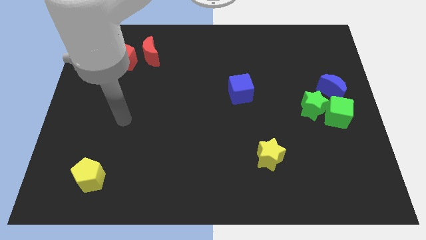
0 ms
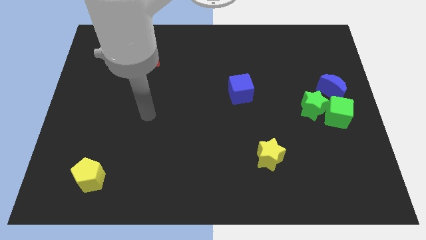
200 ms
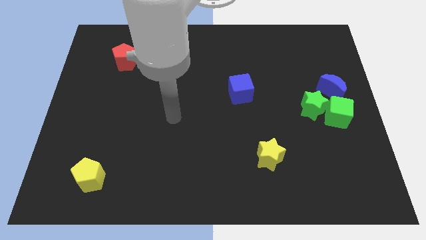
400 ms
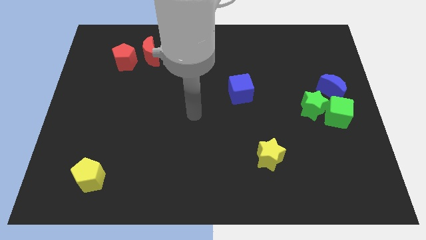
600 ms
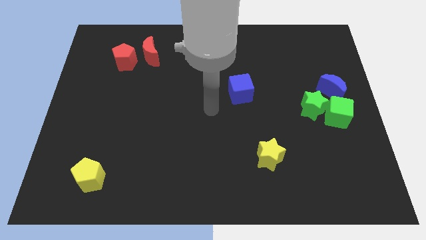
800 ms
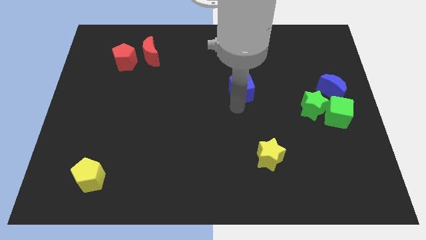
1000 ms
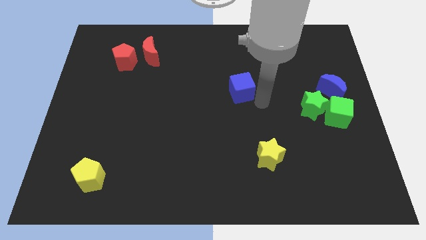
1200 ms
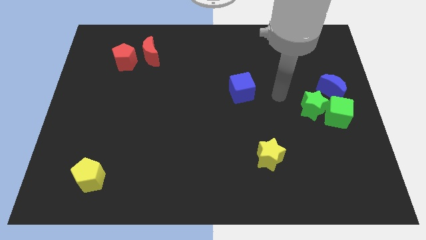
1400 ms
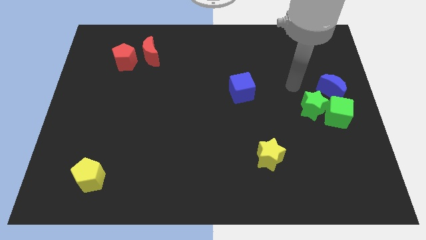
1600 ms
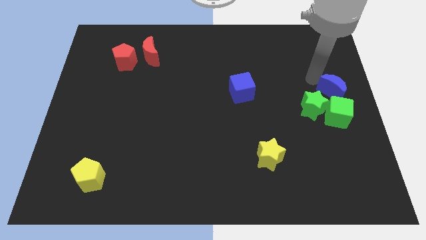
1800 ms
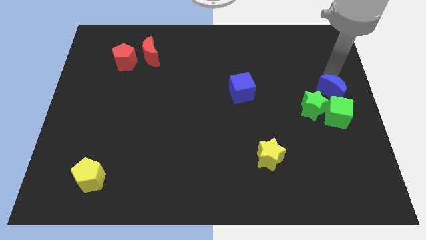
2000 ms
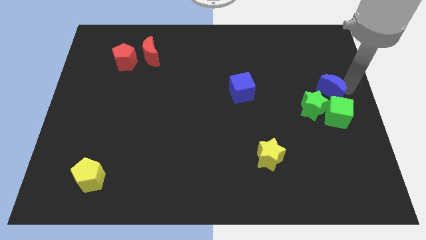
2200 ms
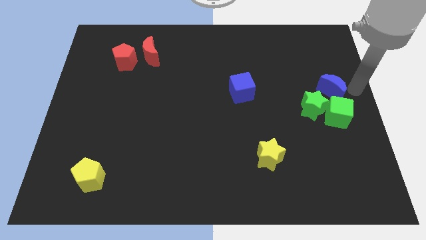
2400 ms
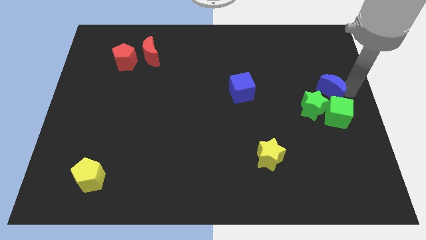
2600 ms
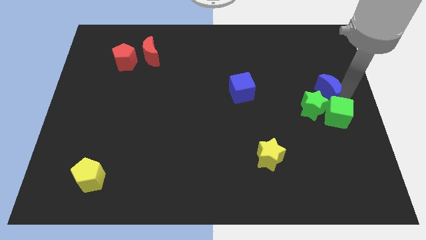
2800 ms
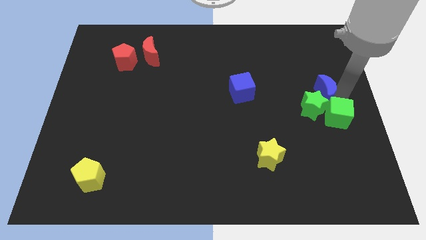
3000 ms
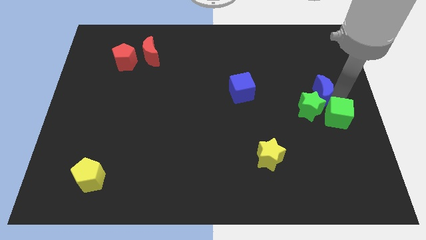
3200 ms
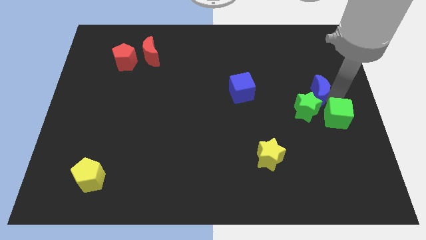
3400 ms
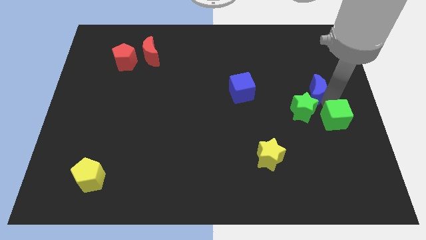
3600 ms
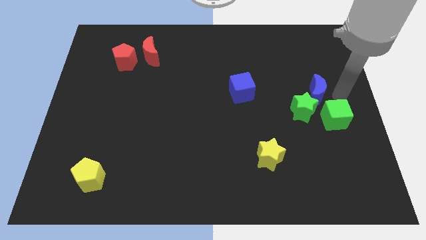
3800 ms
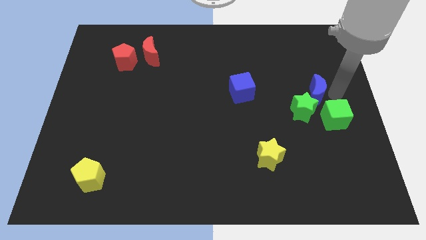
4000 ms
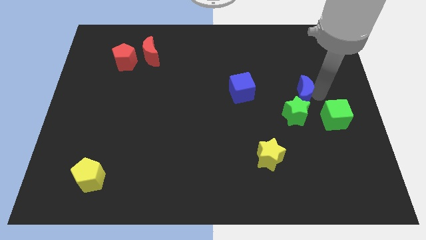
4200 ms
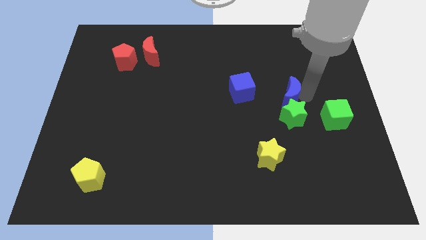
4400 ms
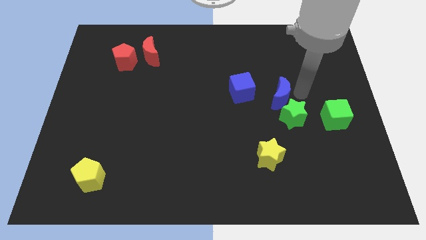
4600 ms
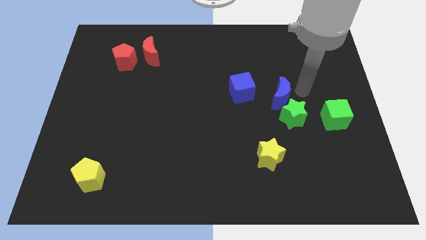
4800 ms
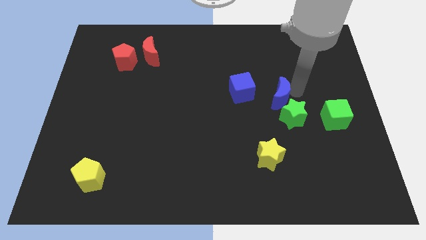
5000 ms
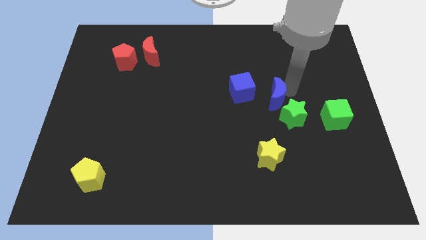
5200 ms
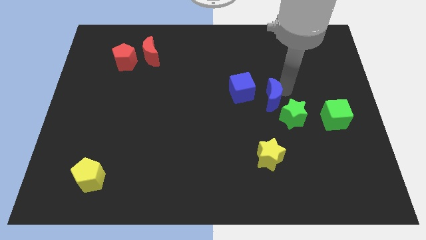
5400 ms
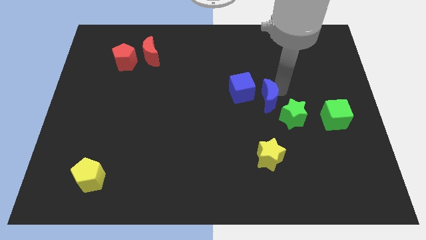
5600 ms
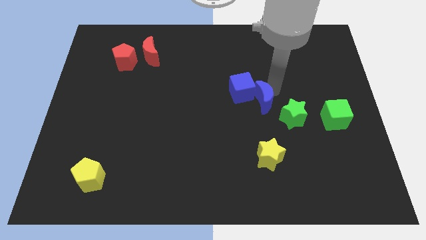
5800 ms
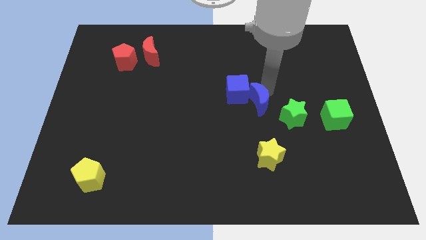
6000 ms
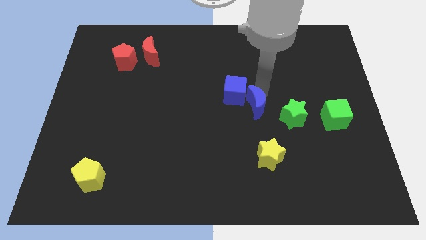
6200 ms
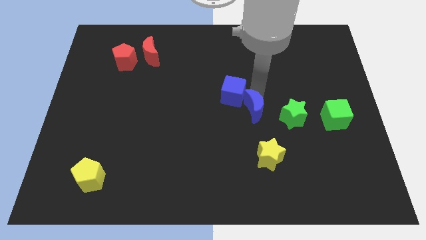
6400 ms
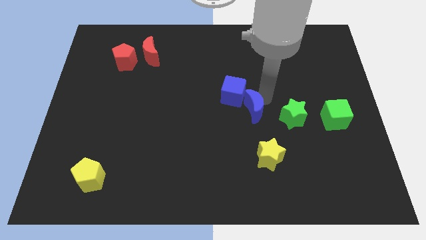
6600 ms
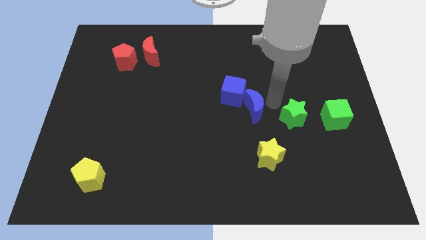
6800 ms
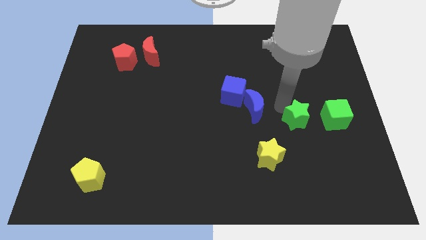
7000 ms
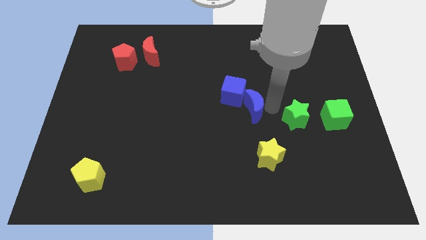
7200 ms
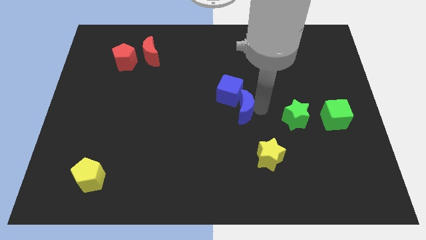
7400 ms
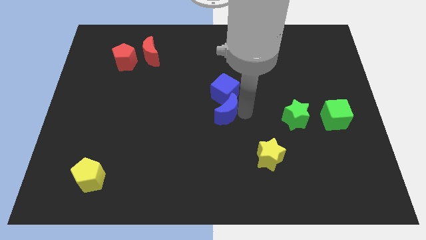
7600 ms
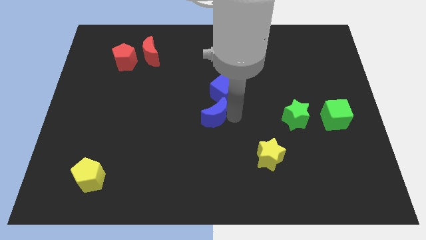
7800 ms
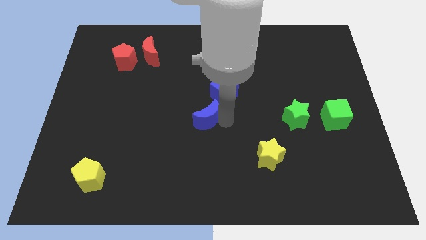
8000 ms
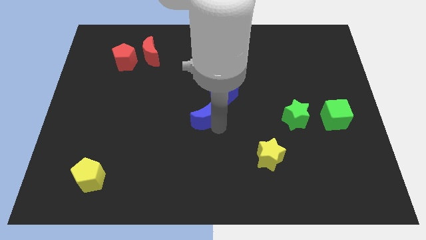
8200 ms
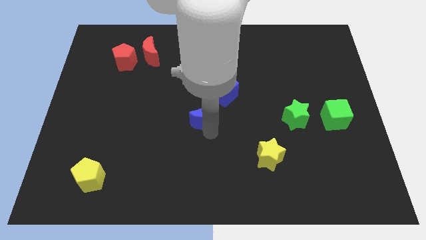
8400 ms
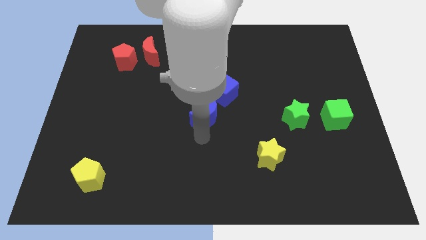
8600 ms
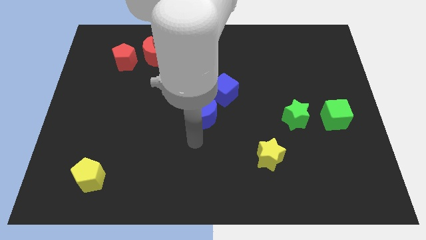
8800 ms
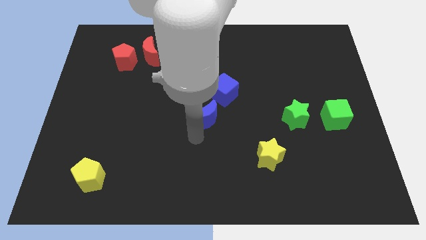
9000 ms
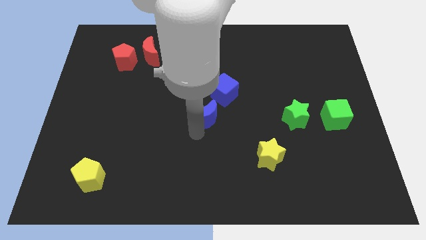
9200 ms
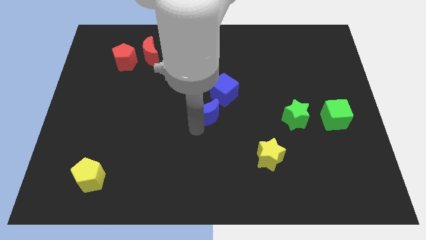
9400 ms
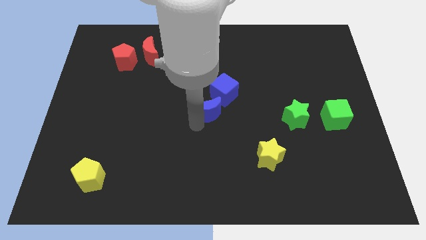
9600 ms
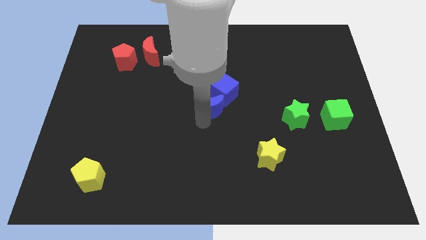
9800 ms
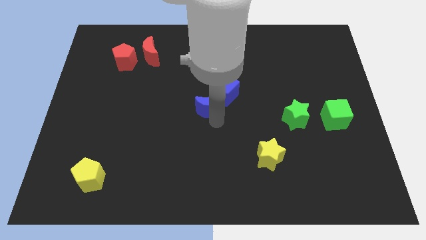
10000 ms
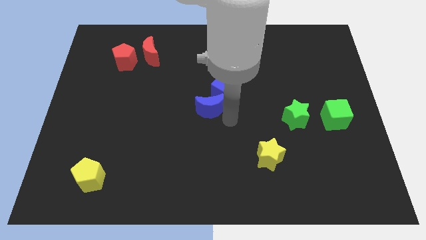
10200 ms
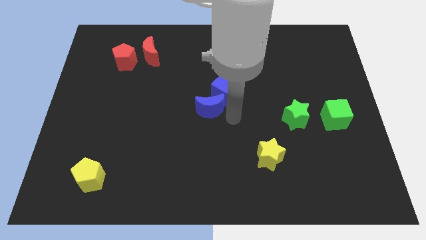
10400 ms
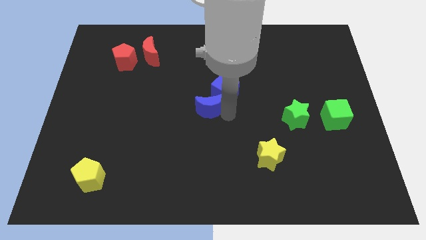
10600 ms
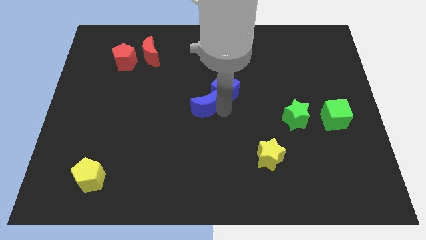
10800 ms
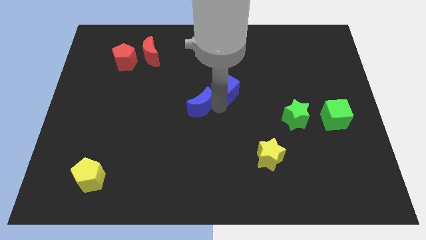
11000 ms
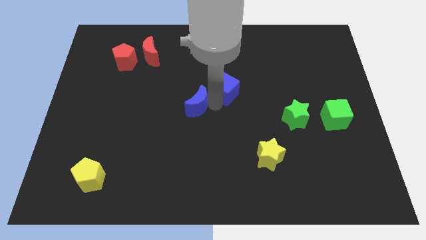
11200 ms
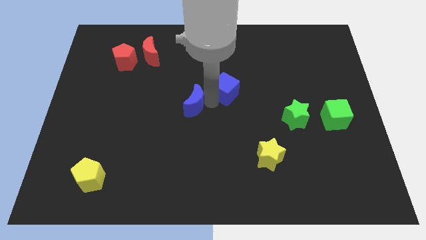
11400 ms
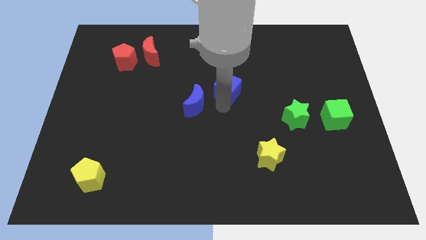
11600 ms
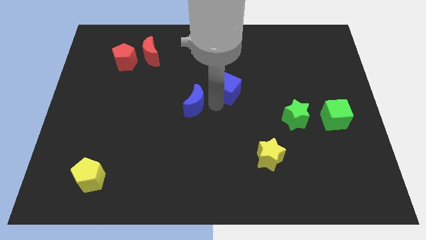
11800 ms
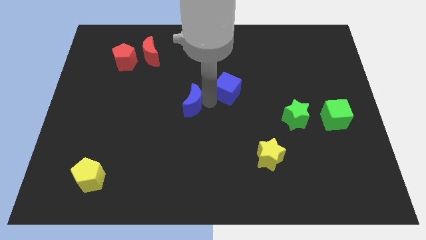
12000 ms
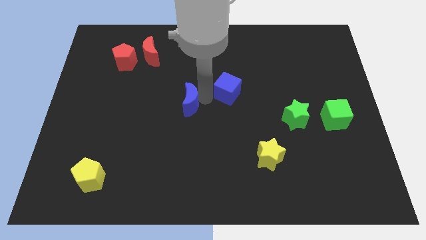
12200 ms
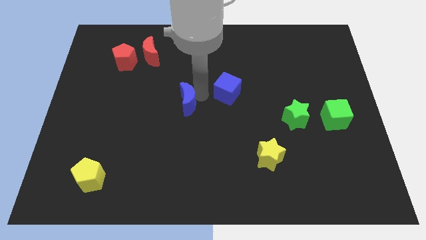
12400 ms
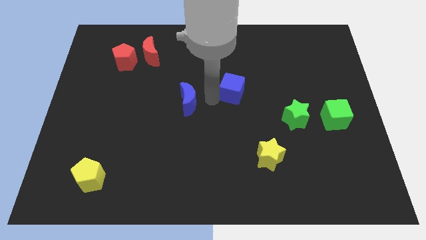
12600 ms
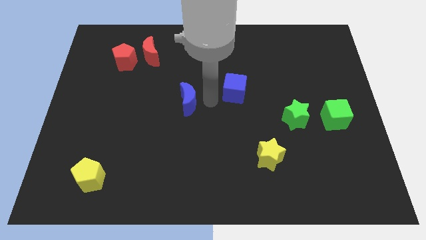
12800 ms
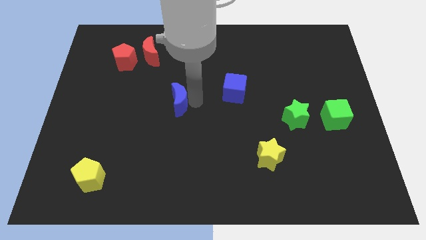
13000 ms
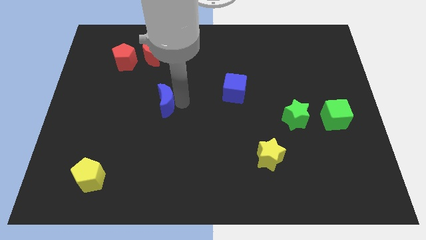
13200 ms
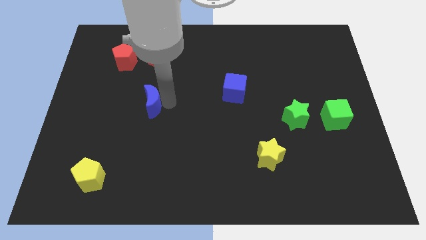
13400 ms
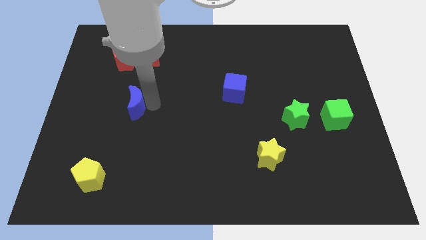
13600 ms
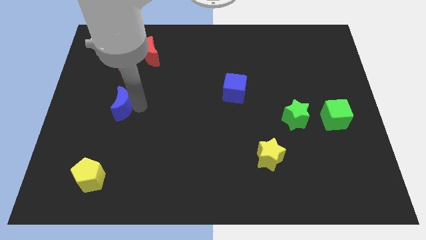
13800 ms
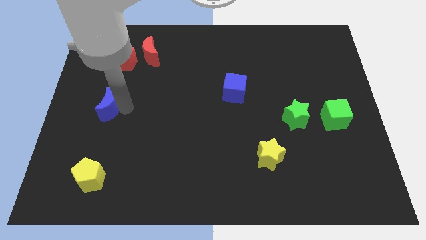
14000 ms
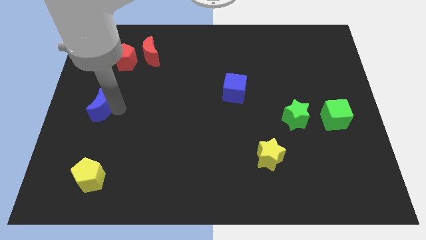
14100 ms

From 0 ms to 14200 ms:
push the blue moon to the left side of the board
